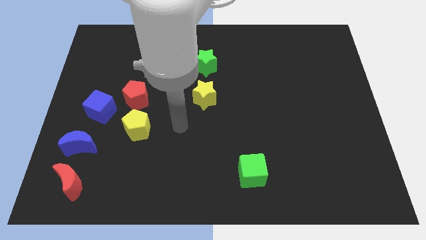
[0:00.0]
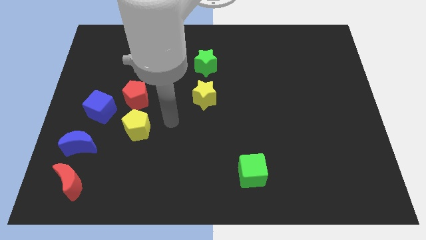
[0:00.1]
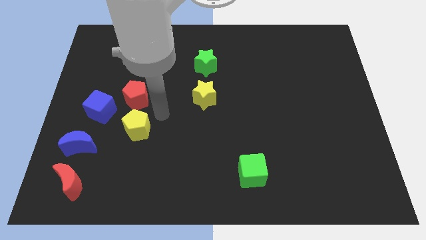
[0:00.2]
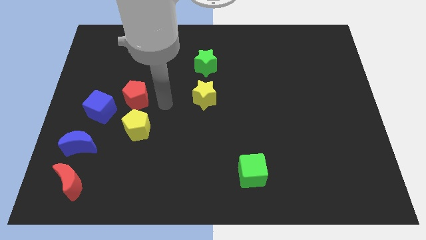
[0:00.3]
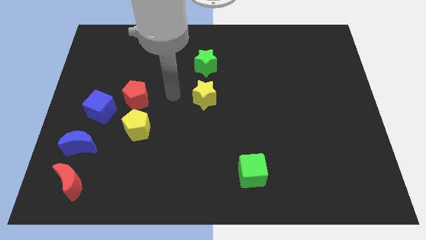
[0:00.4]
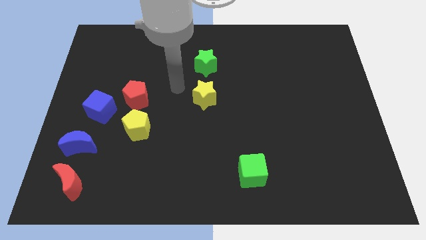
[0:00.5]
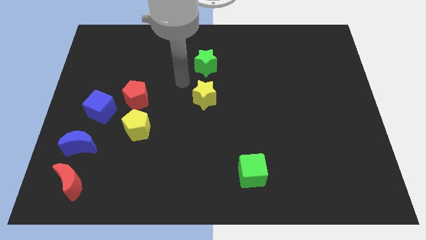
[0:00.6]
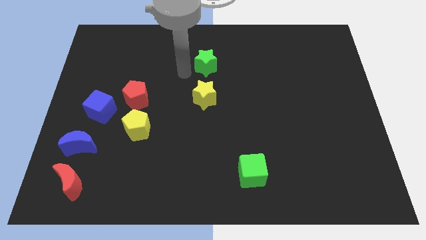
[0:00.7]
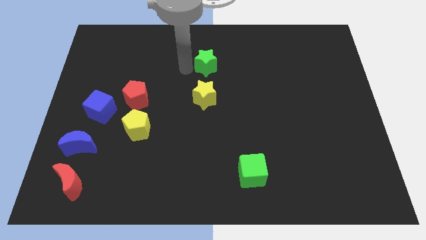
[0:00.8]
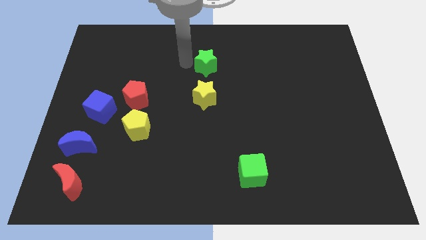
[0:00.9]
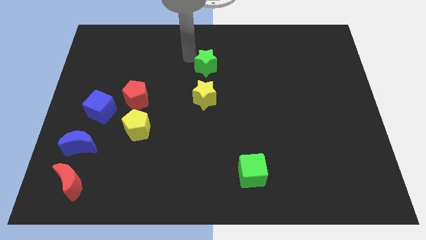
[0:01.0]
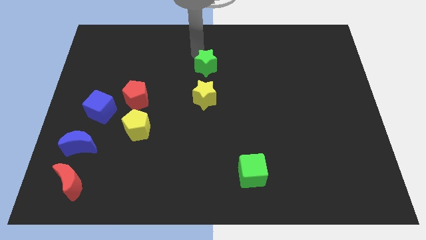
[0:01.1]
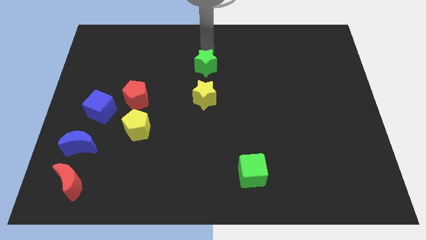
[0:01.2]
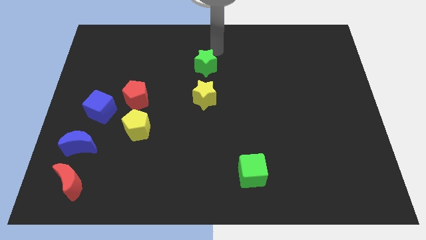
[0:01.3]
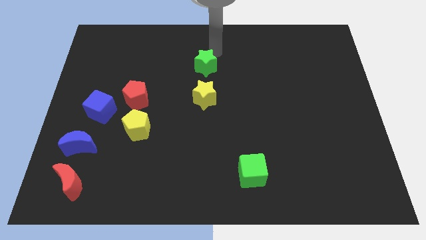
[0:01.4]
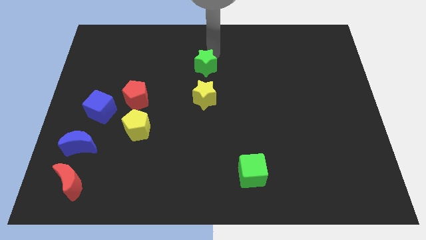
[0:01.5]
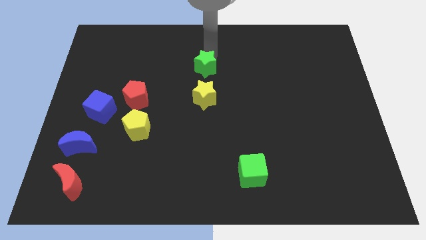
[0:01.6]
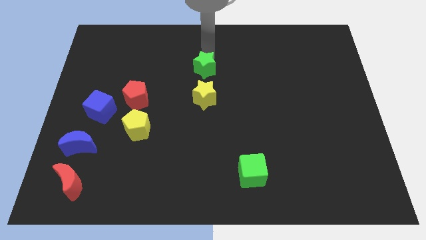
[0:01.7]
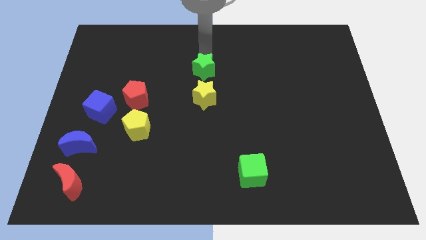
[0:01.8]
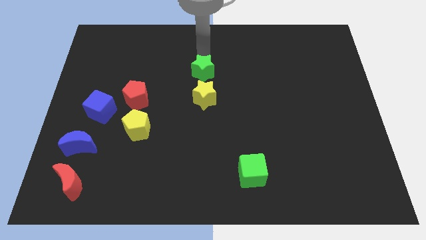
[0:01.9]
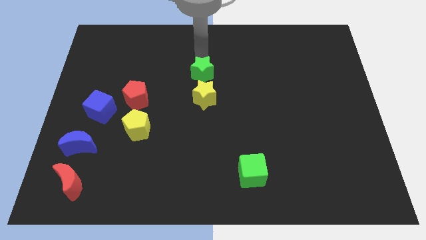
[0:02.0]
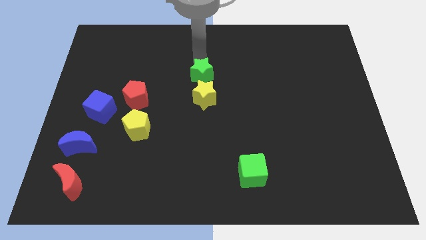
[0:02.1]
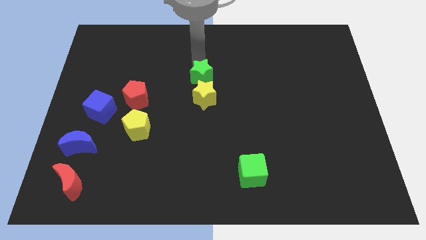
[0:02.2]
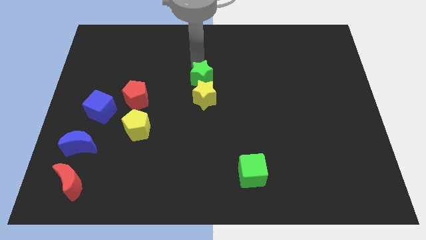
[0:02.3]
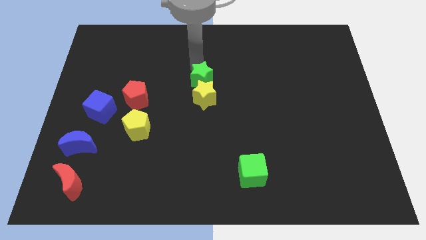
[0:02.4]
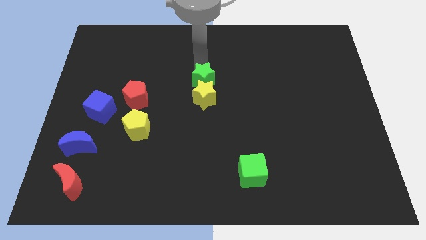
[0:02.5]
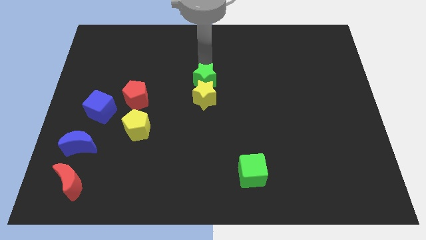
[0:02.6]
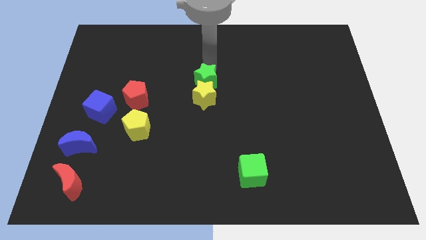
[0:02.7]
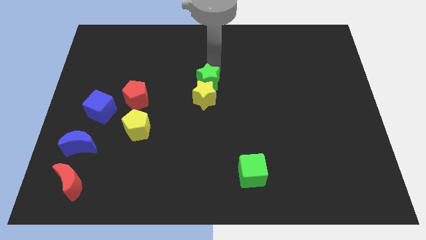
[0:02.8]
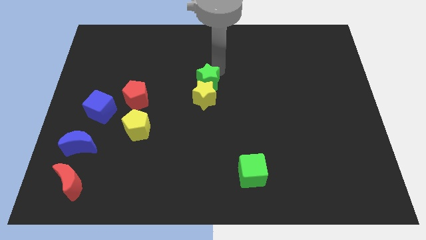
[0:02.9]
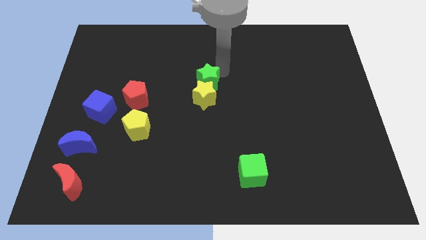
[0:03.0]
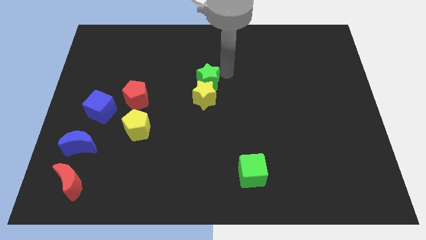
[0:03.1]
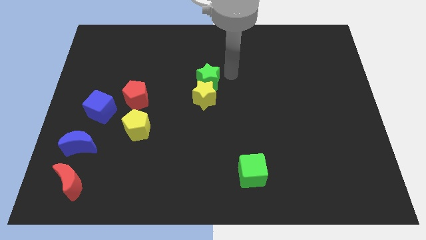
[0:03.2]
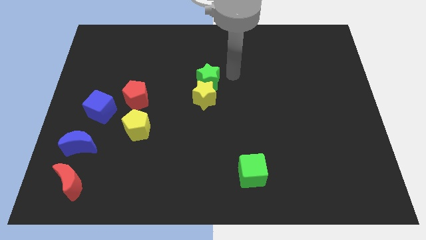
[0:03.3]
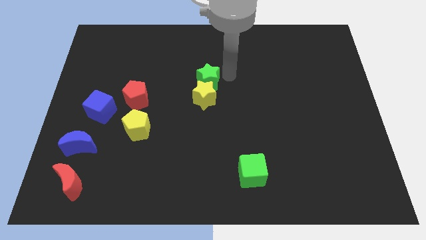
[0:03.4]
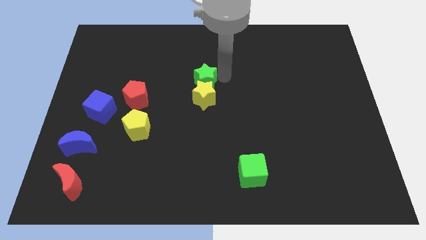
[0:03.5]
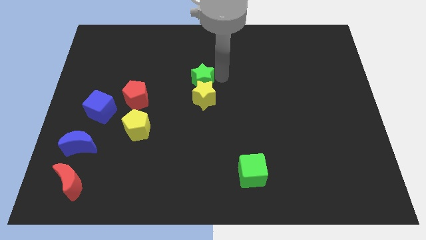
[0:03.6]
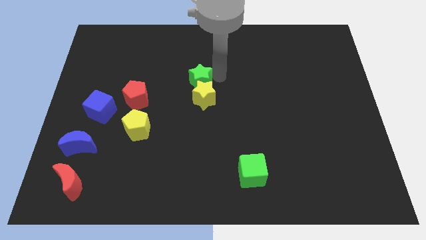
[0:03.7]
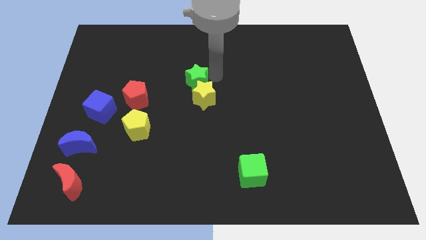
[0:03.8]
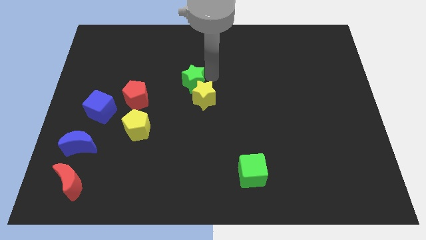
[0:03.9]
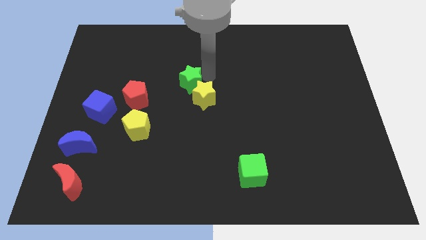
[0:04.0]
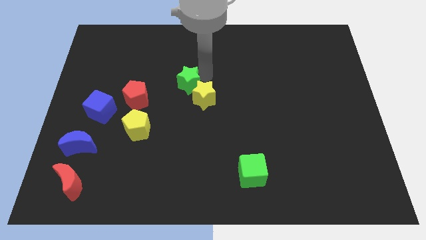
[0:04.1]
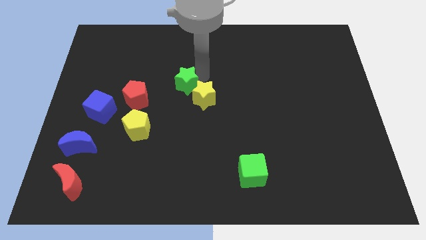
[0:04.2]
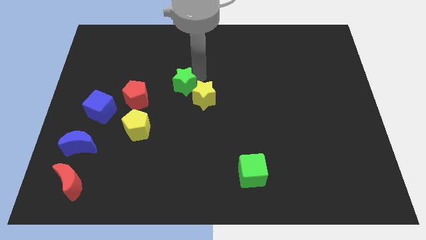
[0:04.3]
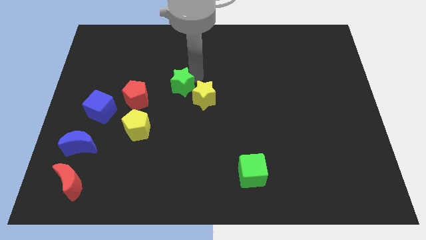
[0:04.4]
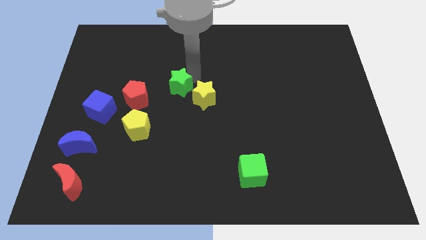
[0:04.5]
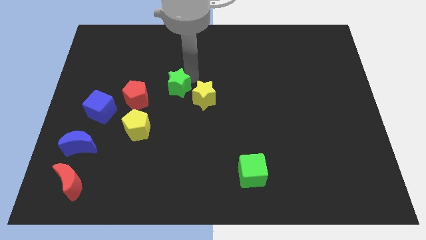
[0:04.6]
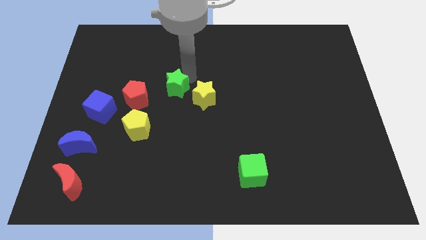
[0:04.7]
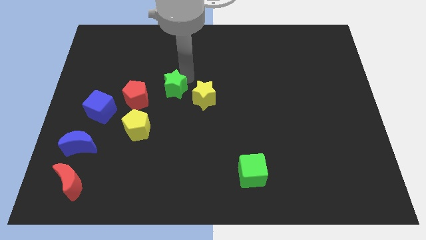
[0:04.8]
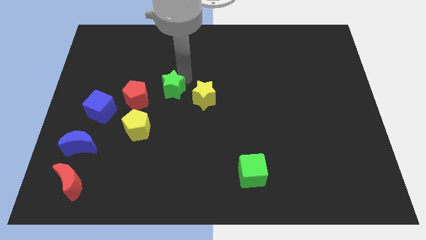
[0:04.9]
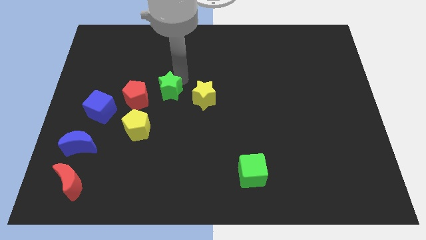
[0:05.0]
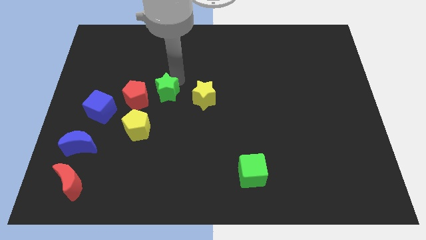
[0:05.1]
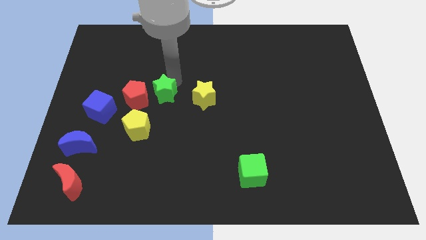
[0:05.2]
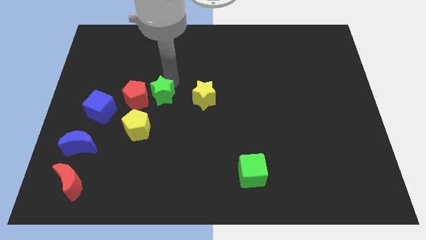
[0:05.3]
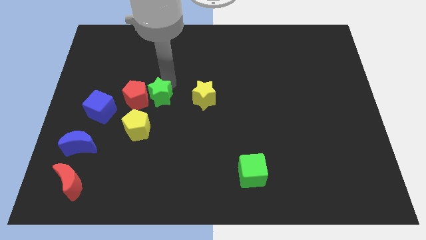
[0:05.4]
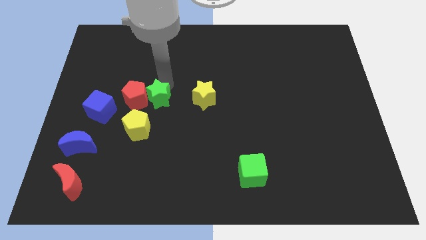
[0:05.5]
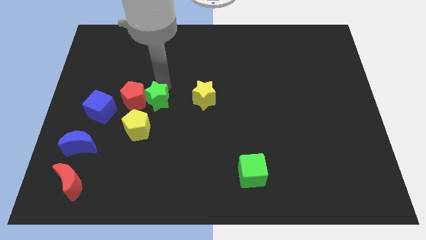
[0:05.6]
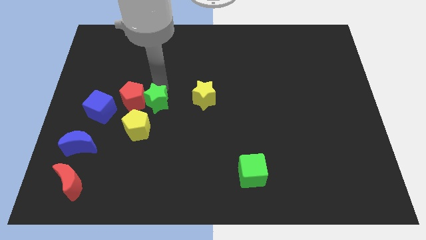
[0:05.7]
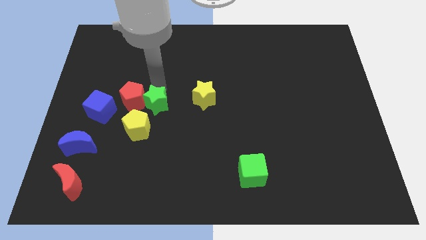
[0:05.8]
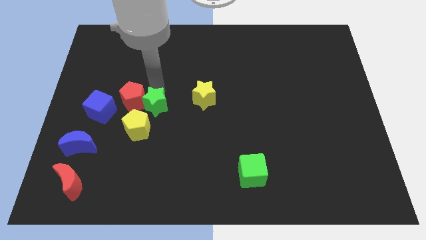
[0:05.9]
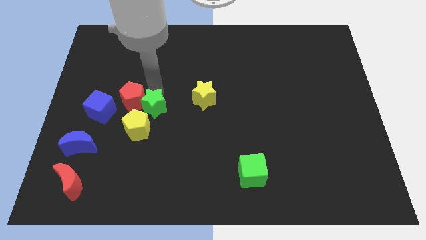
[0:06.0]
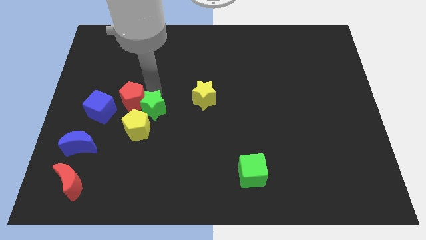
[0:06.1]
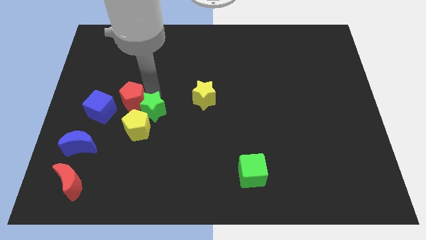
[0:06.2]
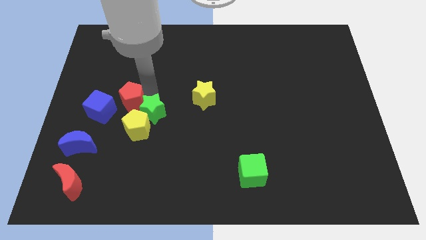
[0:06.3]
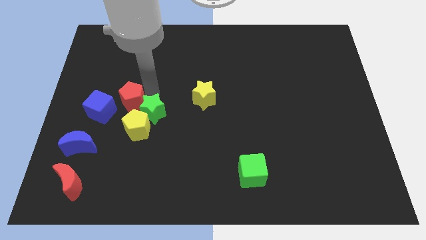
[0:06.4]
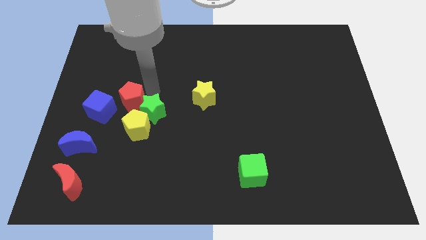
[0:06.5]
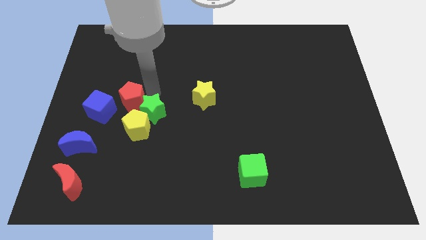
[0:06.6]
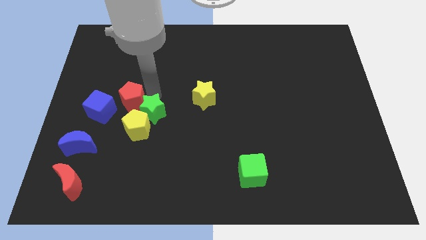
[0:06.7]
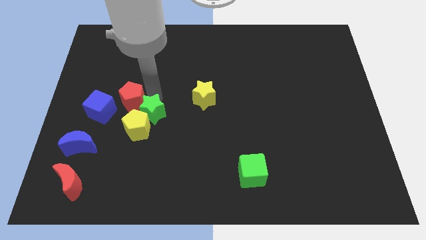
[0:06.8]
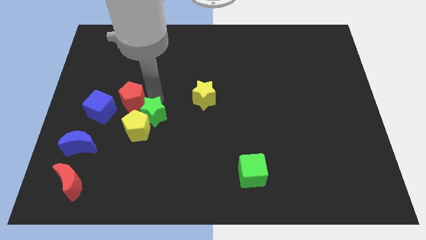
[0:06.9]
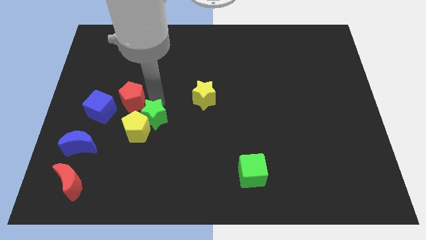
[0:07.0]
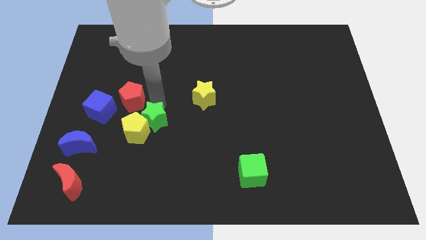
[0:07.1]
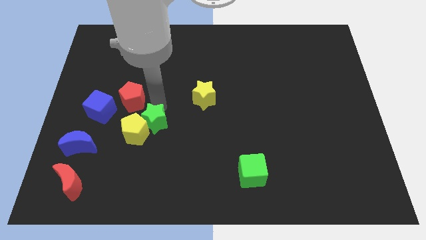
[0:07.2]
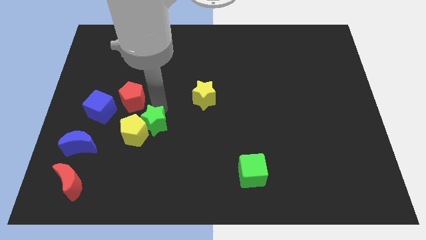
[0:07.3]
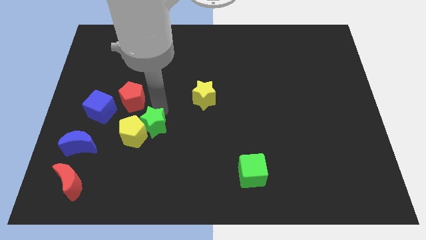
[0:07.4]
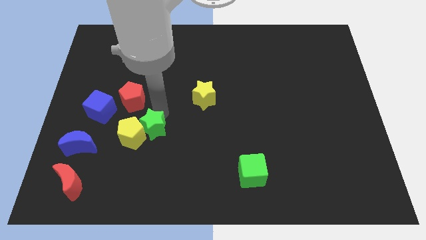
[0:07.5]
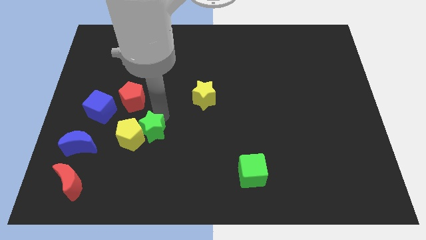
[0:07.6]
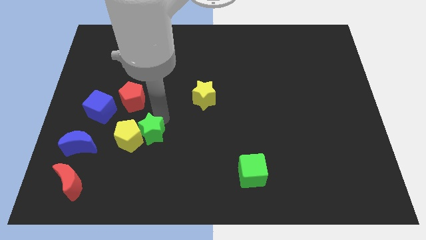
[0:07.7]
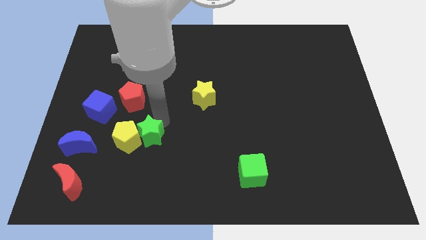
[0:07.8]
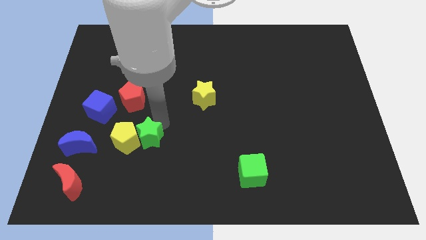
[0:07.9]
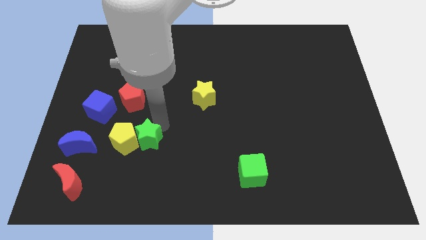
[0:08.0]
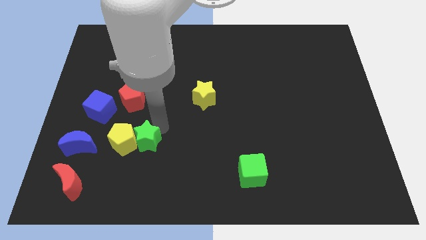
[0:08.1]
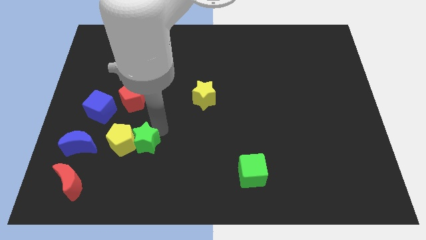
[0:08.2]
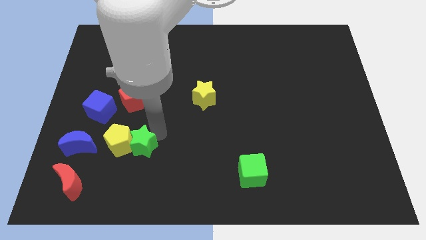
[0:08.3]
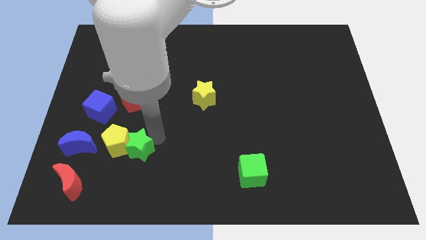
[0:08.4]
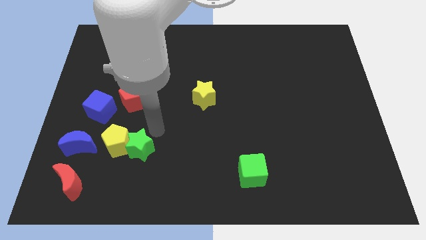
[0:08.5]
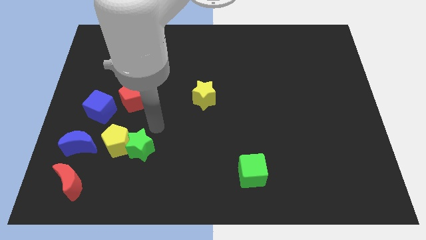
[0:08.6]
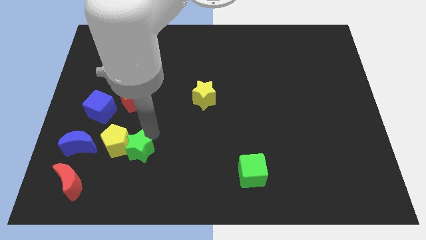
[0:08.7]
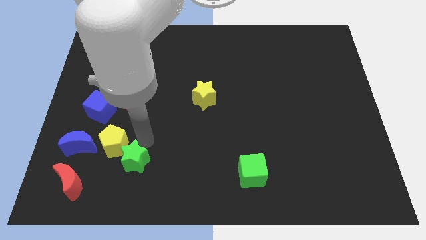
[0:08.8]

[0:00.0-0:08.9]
slide the green star to the bottom side of the yellow pentagon
